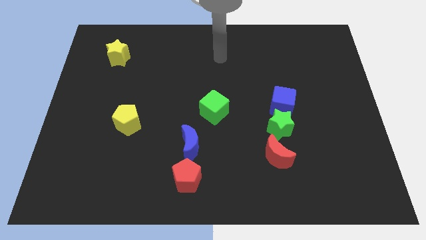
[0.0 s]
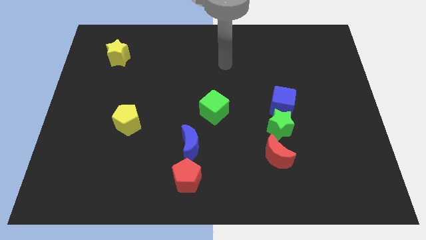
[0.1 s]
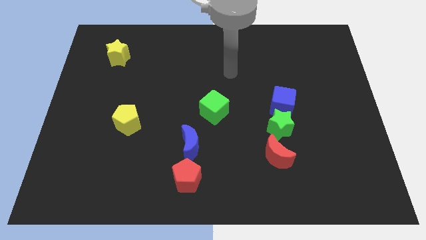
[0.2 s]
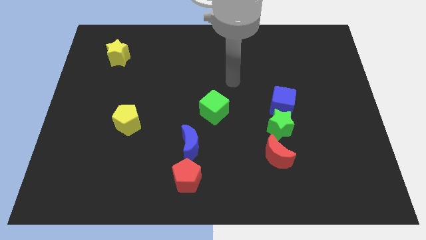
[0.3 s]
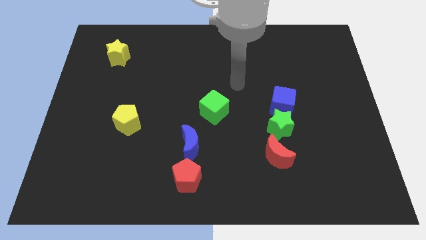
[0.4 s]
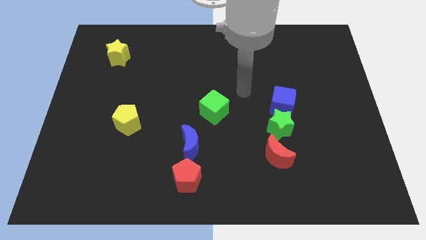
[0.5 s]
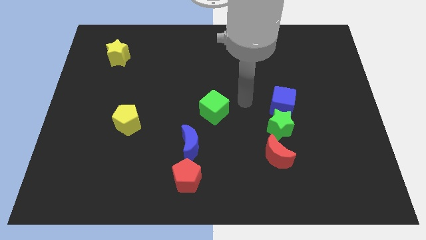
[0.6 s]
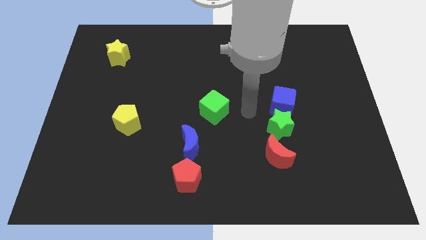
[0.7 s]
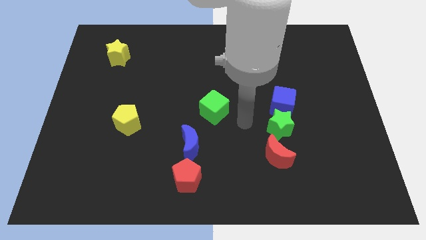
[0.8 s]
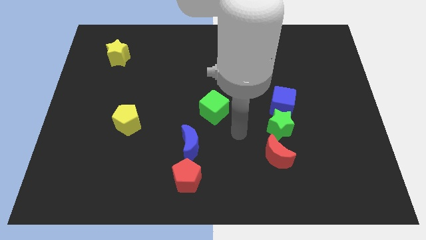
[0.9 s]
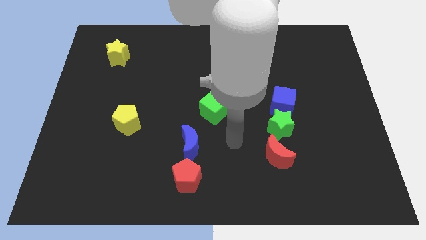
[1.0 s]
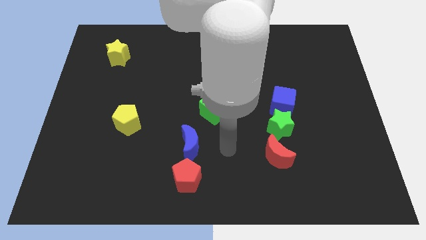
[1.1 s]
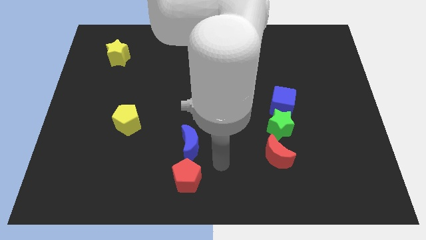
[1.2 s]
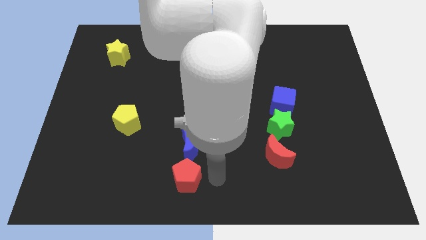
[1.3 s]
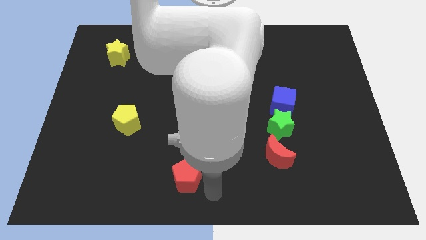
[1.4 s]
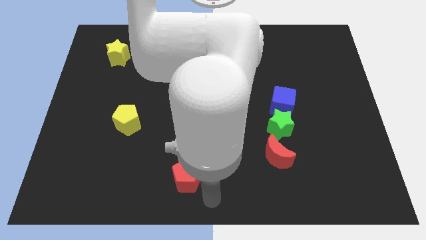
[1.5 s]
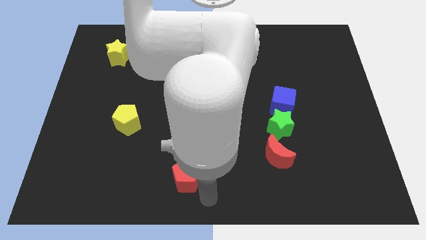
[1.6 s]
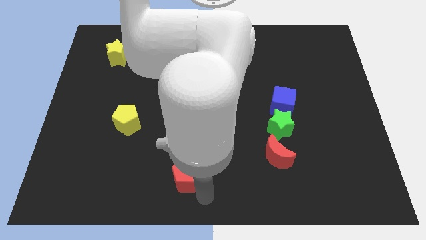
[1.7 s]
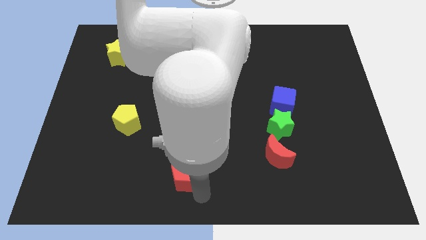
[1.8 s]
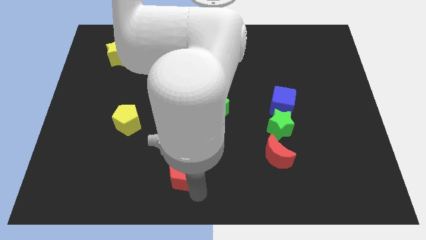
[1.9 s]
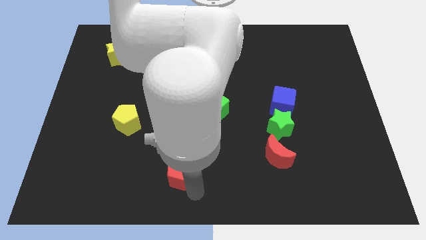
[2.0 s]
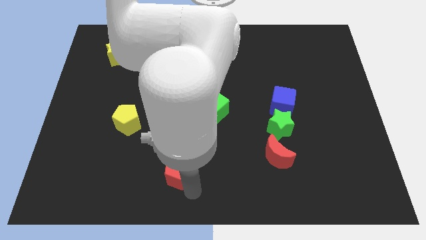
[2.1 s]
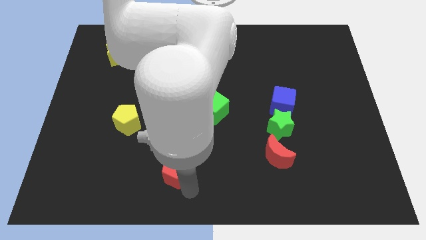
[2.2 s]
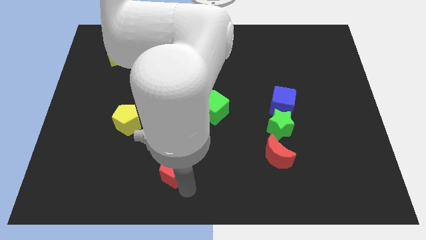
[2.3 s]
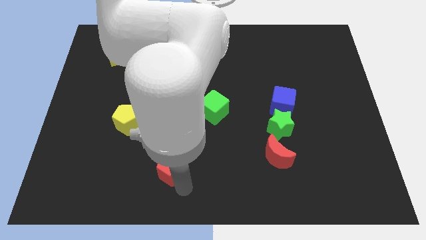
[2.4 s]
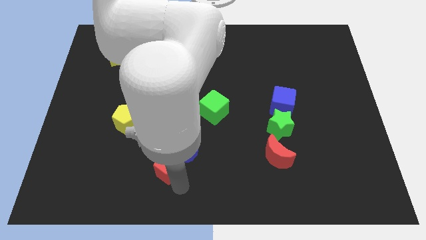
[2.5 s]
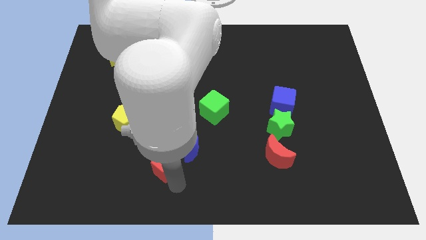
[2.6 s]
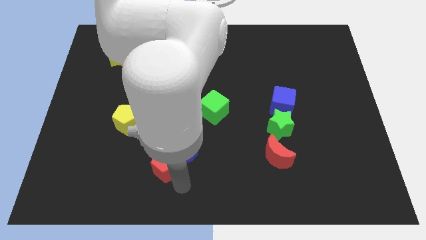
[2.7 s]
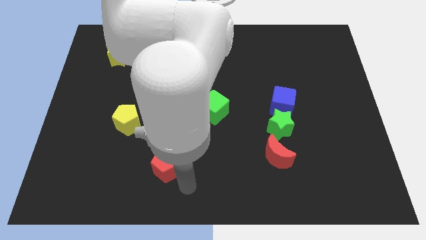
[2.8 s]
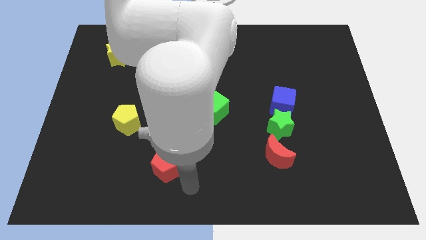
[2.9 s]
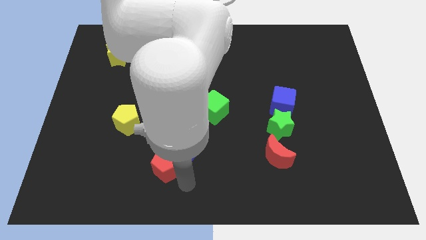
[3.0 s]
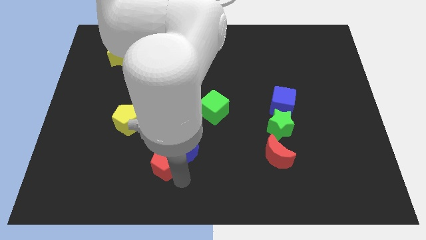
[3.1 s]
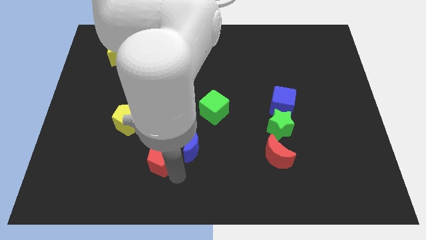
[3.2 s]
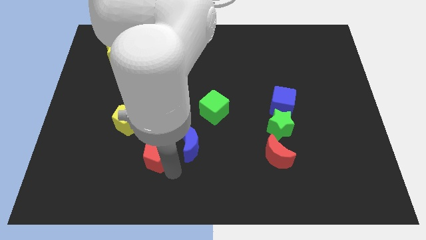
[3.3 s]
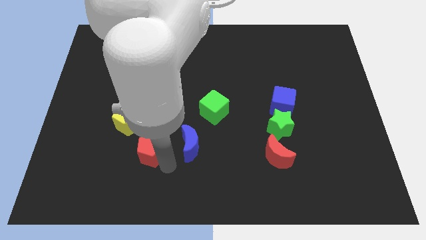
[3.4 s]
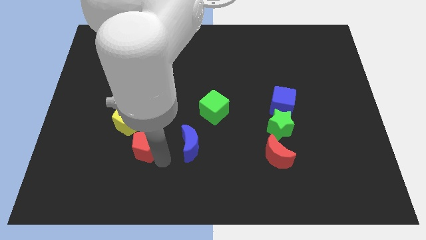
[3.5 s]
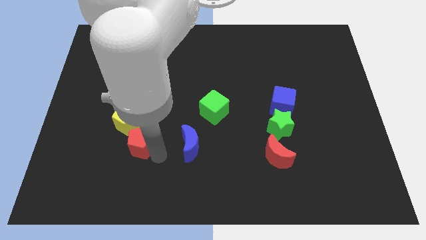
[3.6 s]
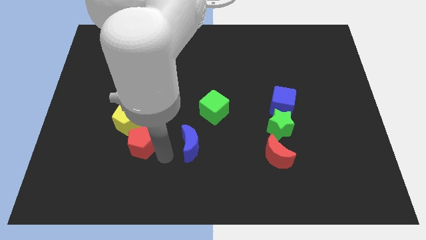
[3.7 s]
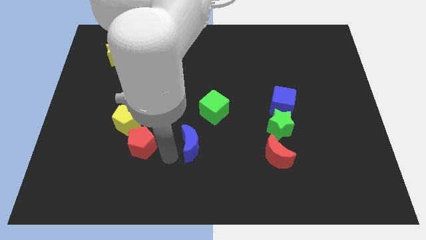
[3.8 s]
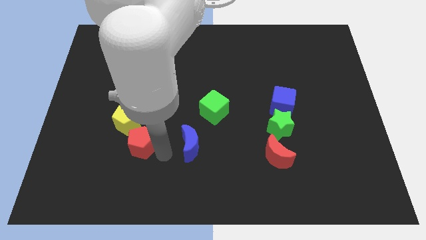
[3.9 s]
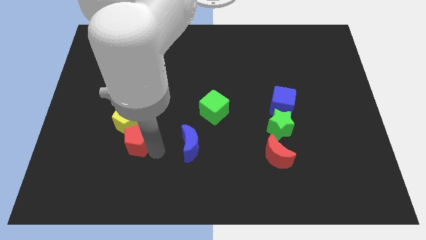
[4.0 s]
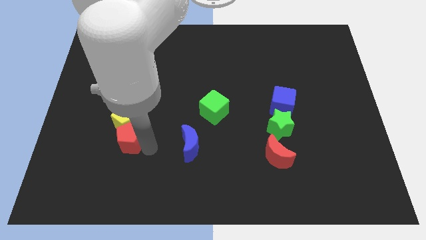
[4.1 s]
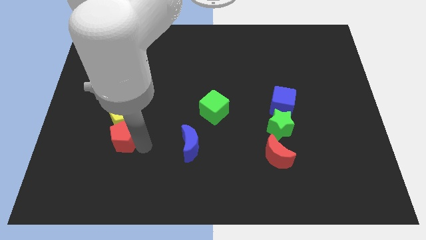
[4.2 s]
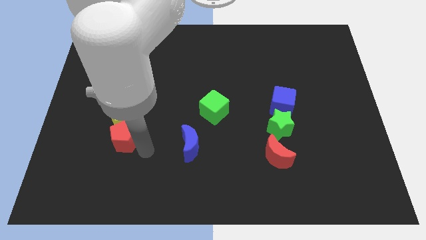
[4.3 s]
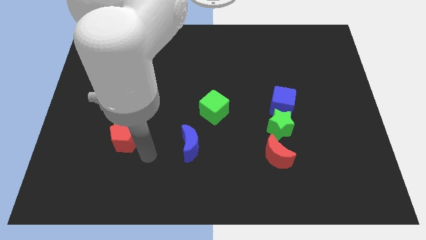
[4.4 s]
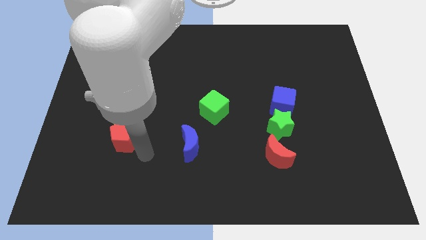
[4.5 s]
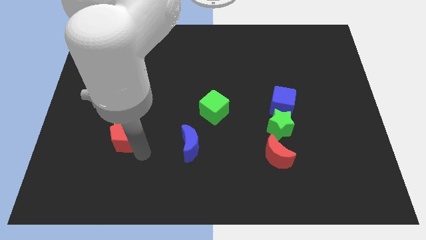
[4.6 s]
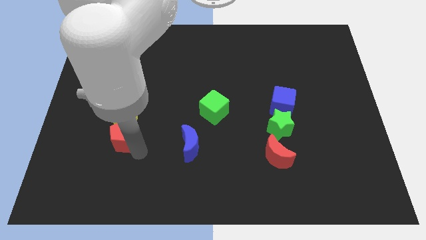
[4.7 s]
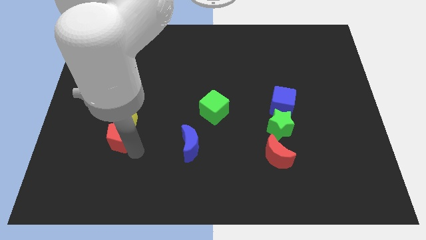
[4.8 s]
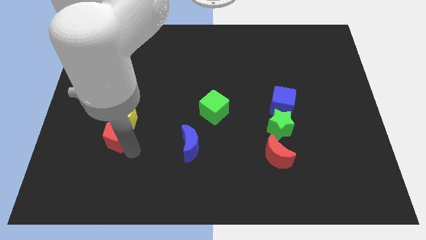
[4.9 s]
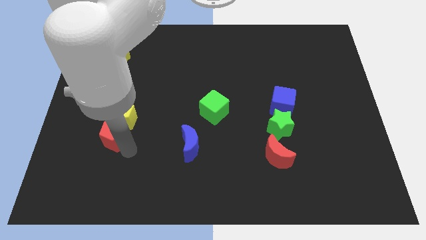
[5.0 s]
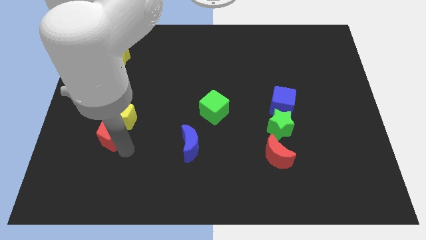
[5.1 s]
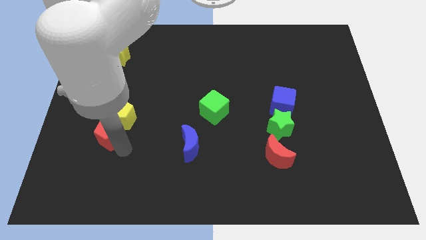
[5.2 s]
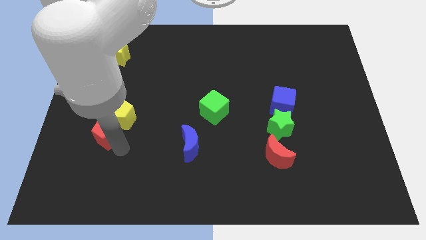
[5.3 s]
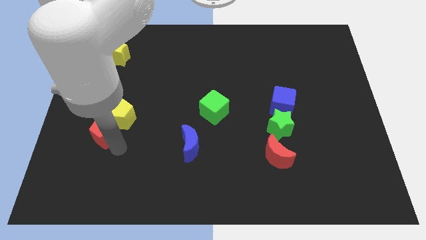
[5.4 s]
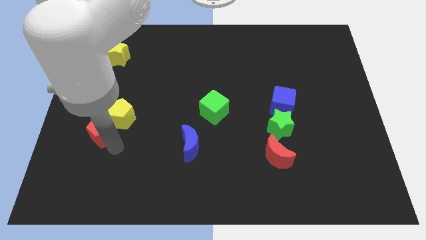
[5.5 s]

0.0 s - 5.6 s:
push the red pentagon upwards and then to the left

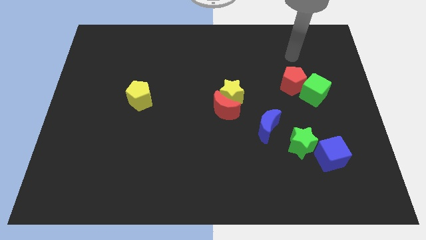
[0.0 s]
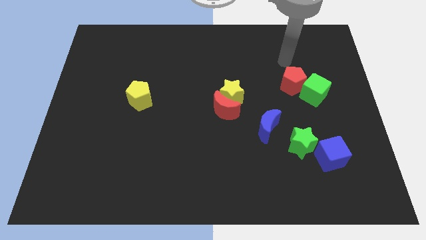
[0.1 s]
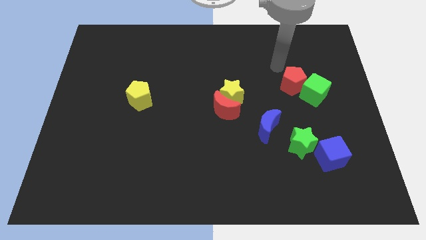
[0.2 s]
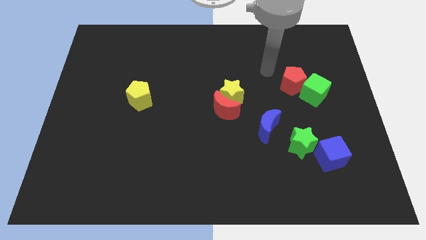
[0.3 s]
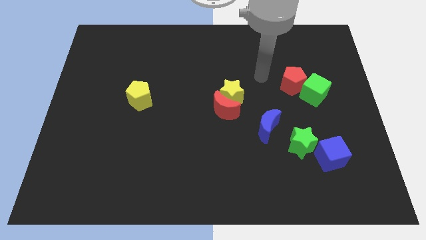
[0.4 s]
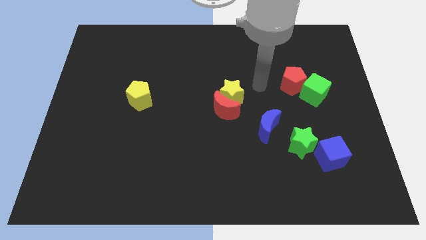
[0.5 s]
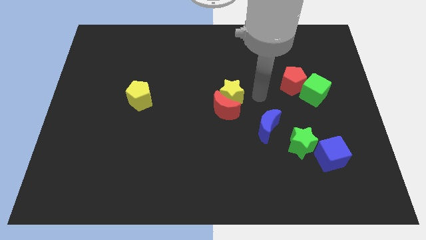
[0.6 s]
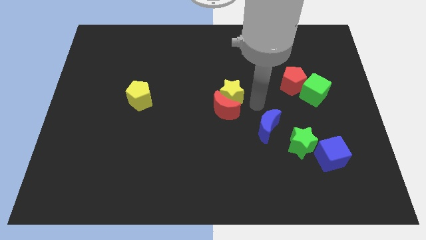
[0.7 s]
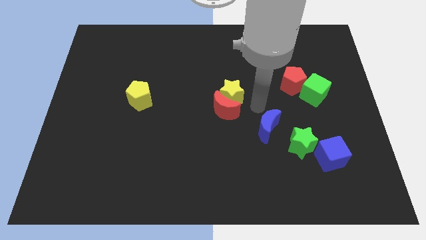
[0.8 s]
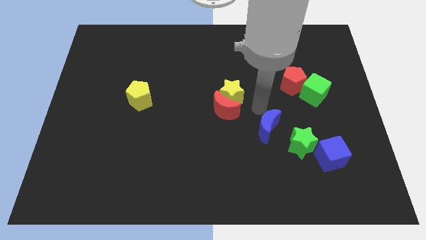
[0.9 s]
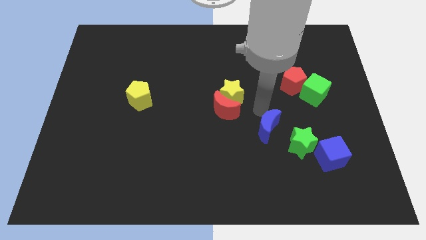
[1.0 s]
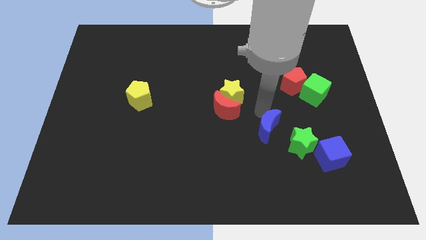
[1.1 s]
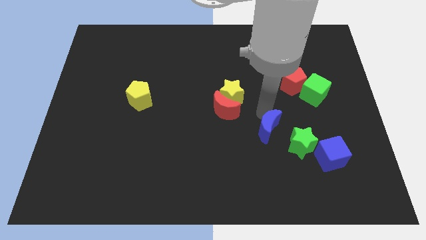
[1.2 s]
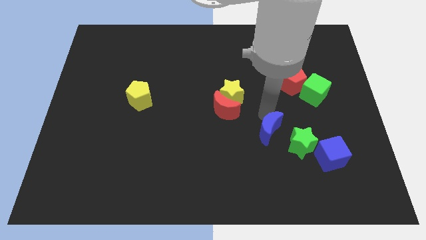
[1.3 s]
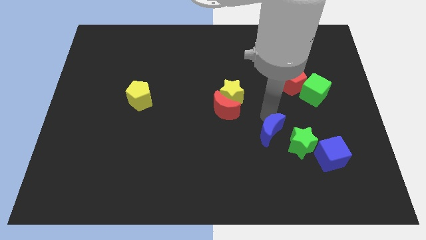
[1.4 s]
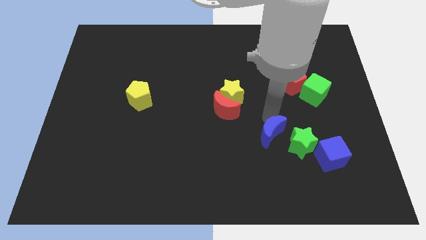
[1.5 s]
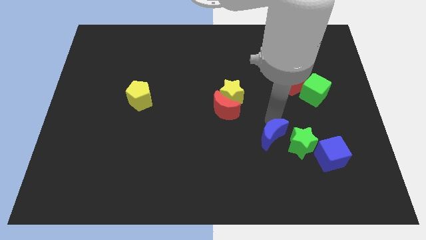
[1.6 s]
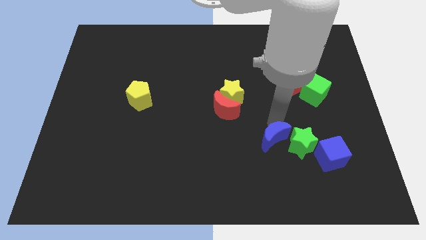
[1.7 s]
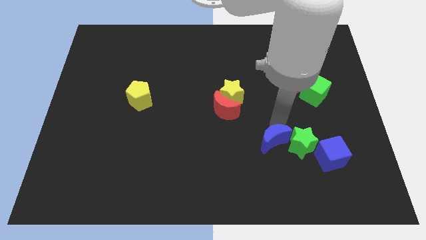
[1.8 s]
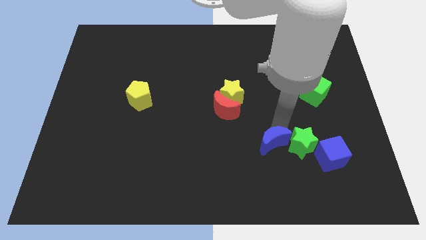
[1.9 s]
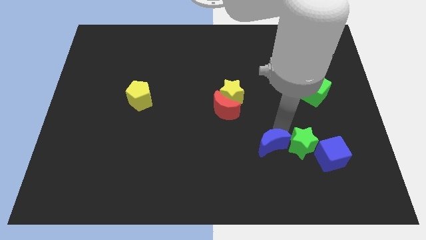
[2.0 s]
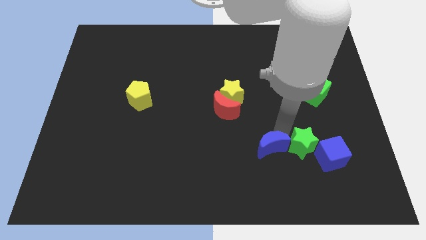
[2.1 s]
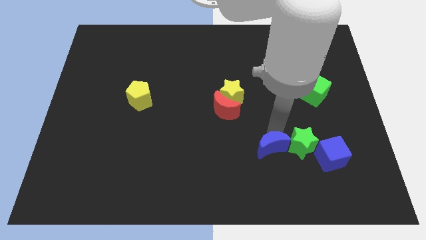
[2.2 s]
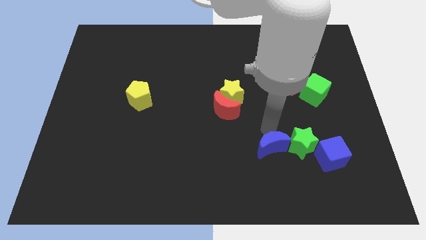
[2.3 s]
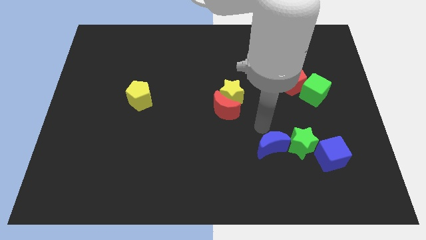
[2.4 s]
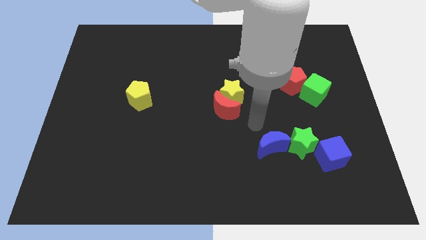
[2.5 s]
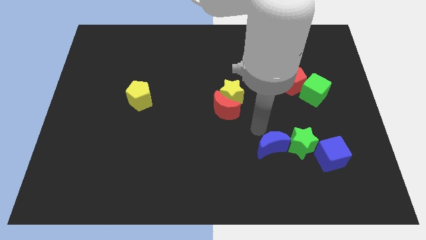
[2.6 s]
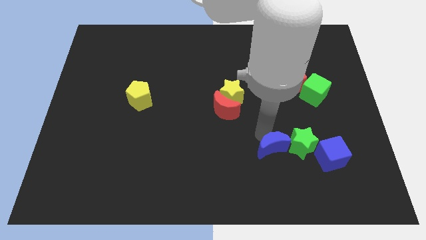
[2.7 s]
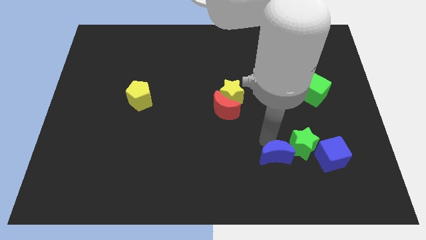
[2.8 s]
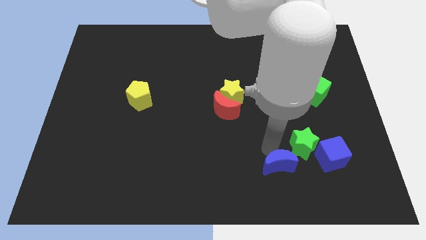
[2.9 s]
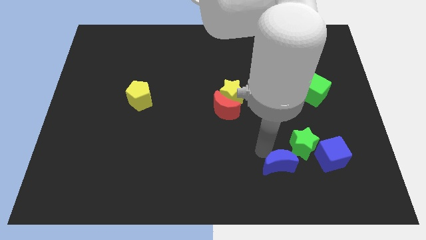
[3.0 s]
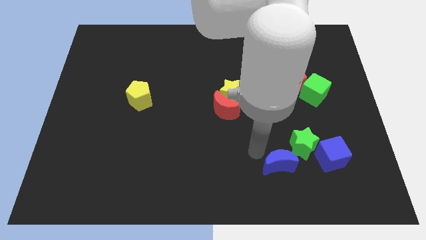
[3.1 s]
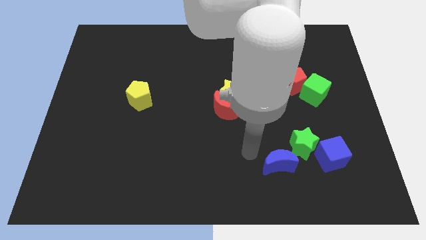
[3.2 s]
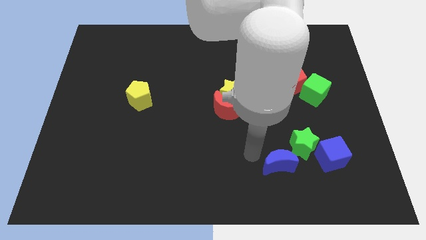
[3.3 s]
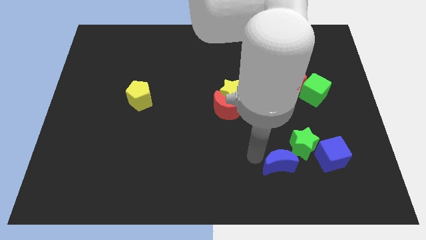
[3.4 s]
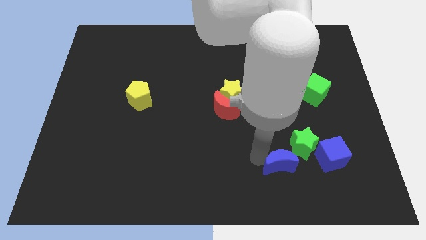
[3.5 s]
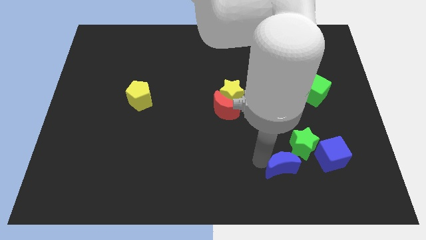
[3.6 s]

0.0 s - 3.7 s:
slightly move the blue moon diagonally down and right
